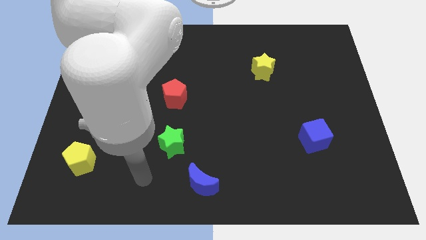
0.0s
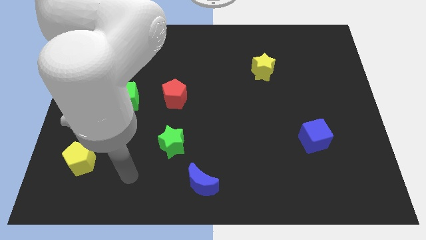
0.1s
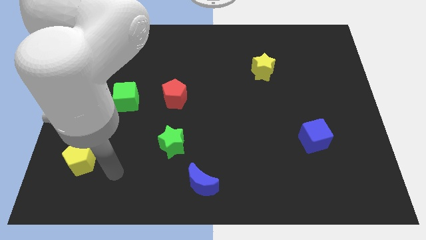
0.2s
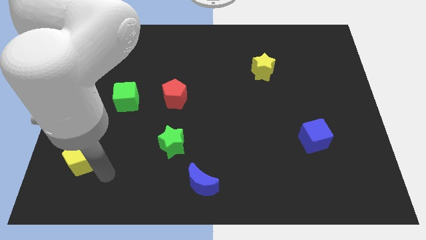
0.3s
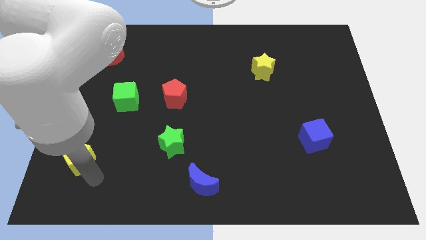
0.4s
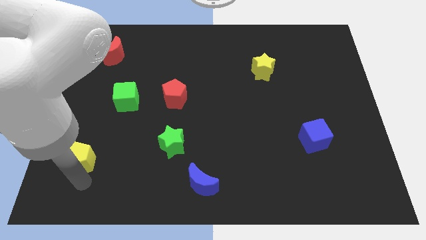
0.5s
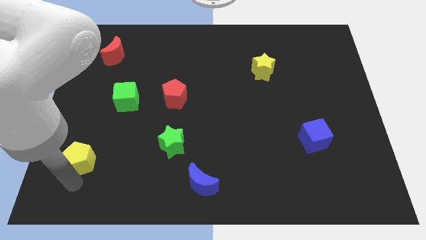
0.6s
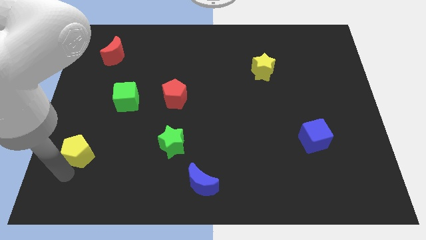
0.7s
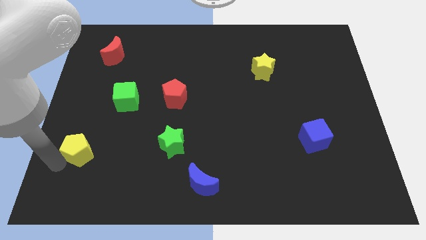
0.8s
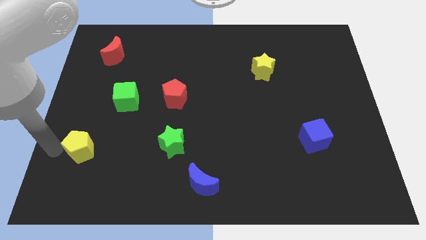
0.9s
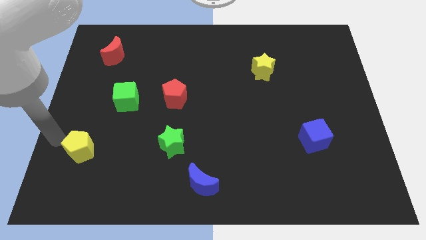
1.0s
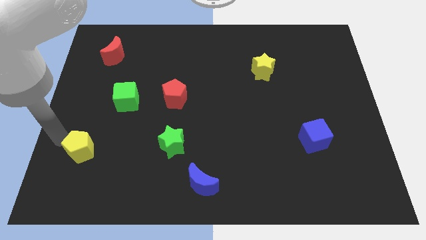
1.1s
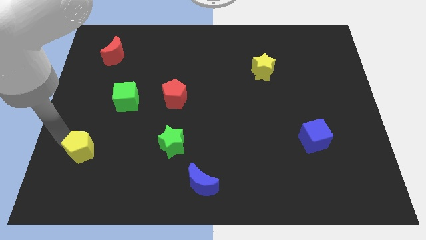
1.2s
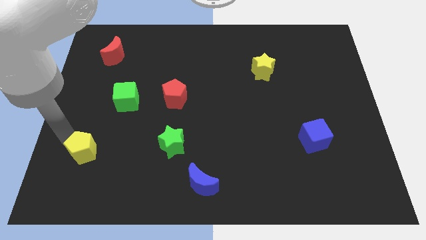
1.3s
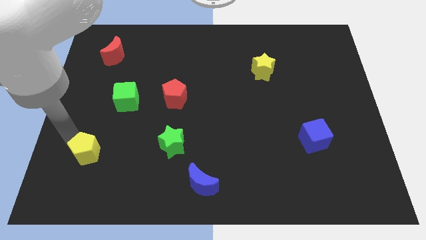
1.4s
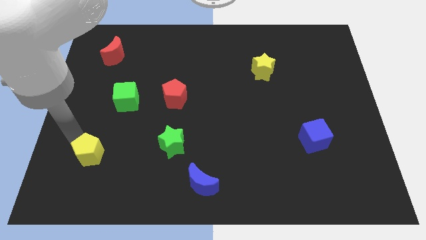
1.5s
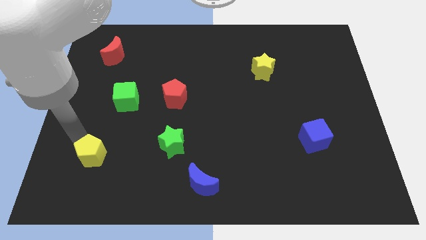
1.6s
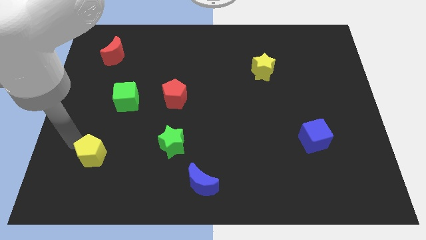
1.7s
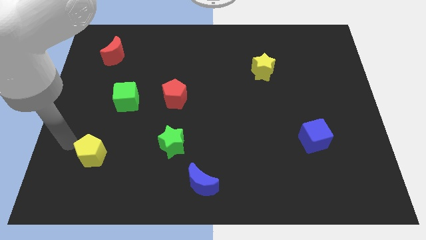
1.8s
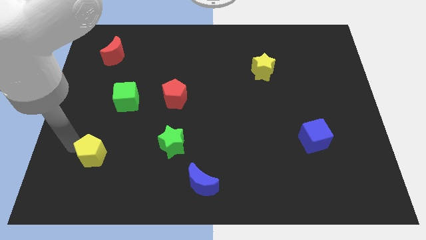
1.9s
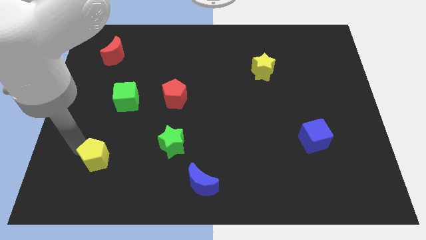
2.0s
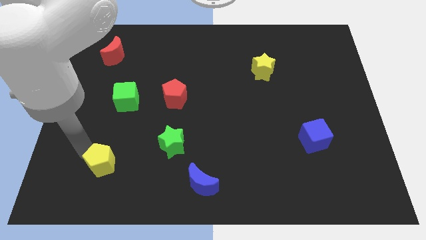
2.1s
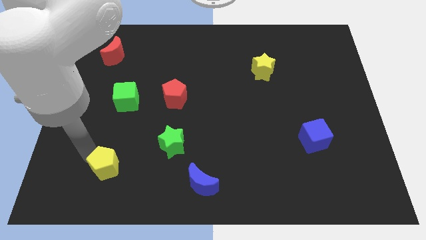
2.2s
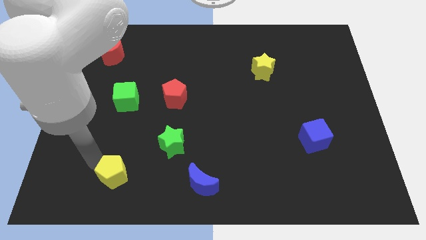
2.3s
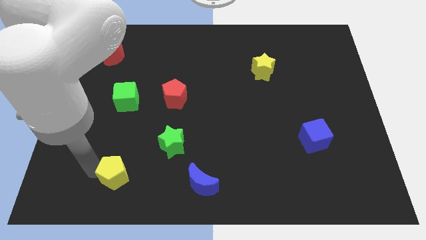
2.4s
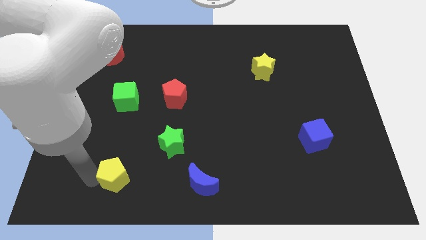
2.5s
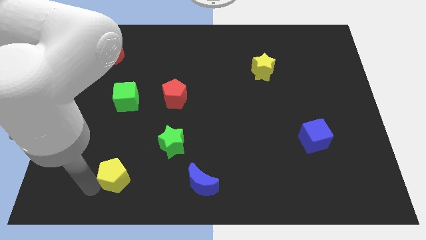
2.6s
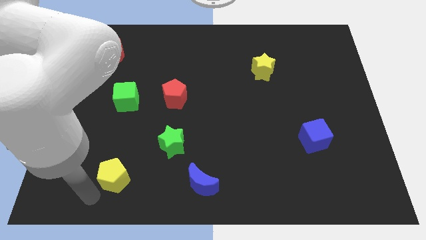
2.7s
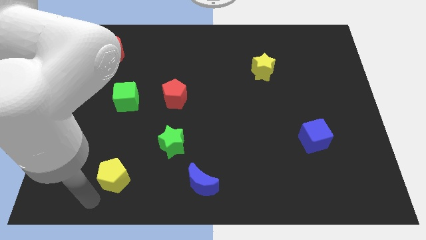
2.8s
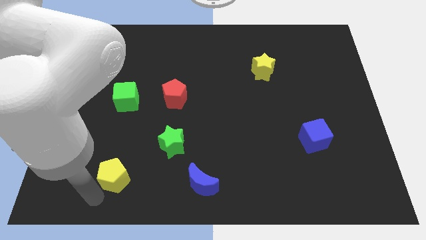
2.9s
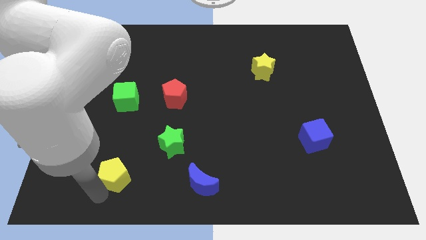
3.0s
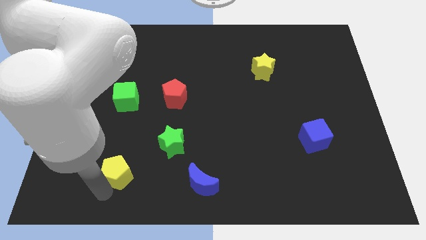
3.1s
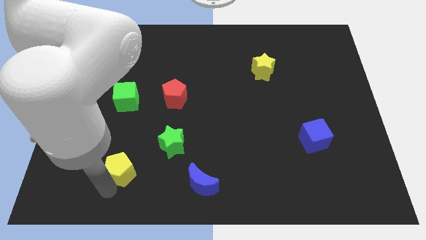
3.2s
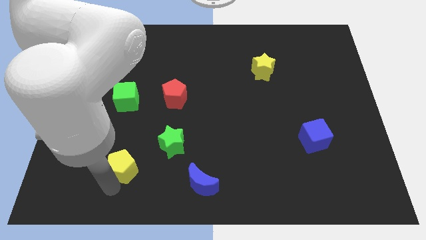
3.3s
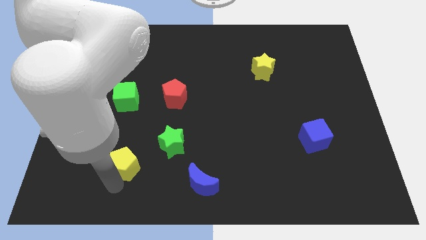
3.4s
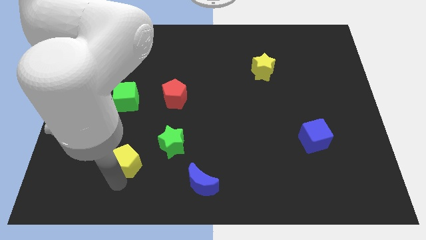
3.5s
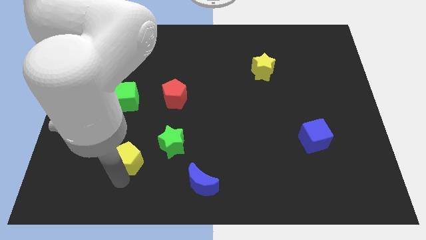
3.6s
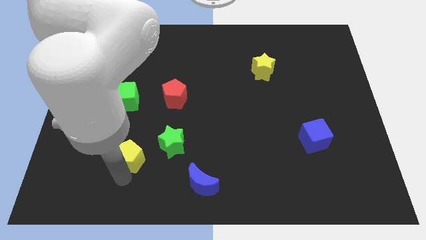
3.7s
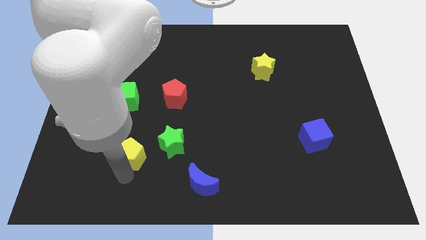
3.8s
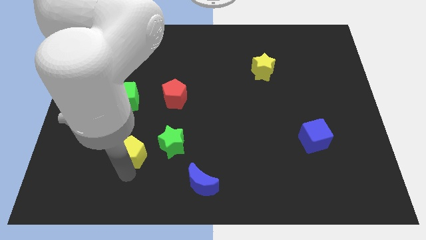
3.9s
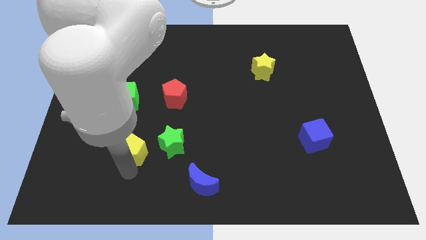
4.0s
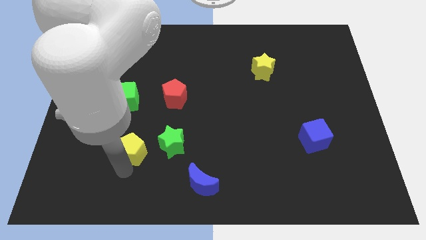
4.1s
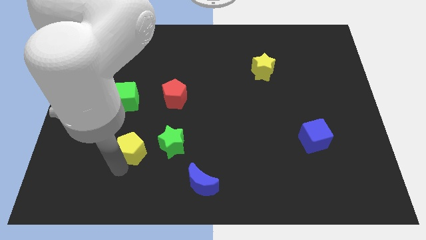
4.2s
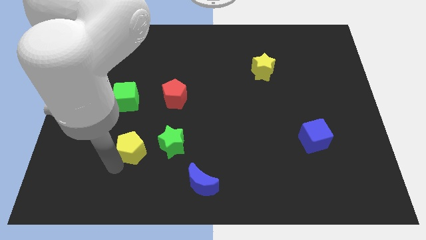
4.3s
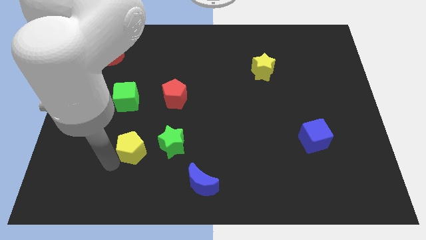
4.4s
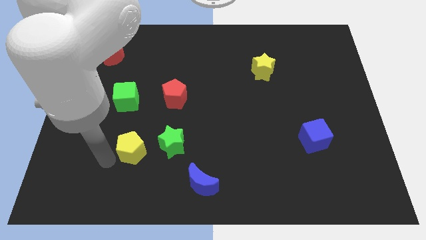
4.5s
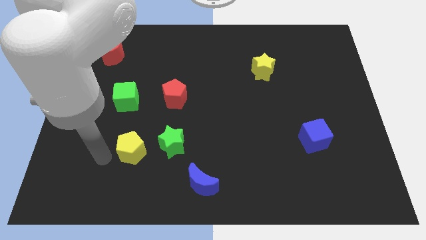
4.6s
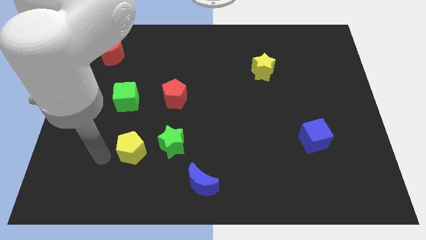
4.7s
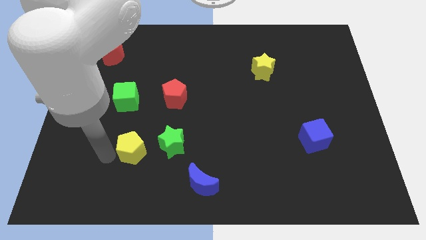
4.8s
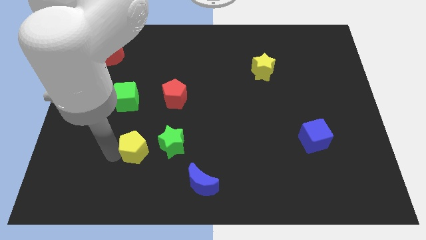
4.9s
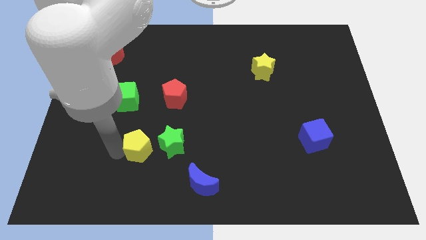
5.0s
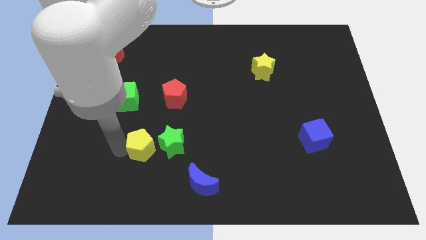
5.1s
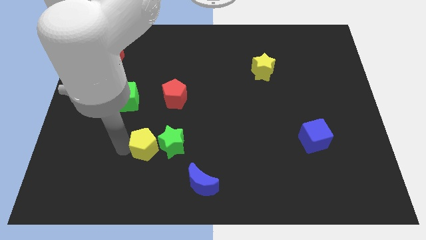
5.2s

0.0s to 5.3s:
move the yellow pentagon towards the green star

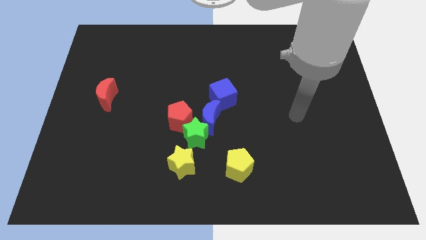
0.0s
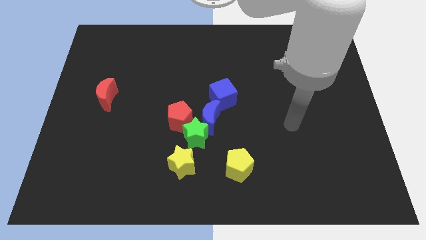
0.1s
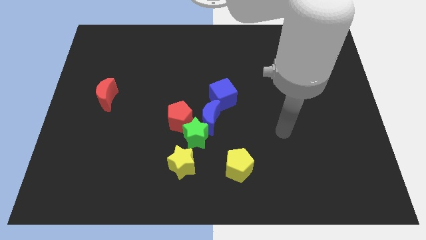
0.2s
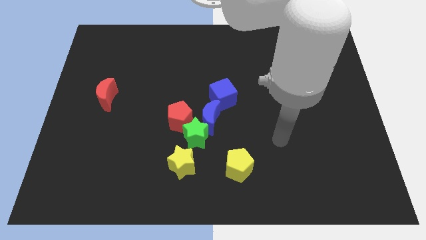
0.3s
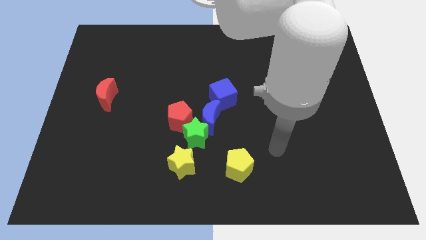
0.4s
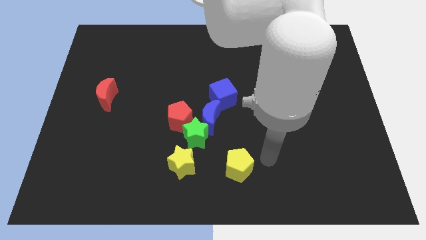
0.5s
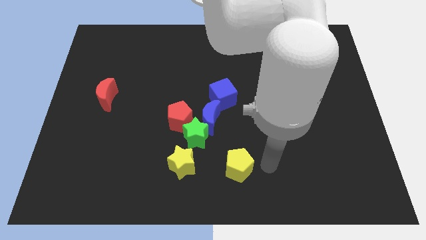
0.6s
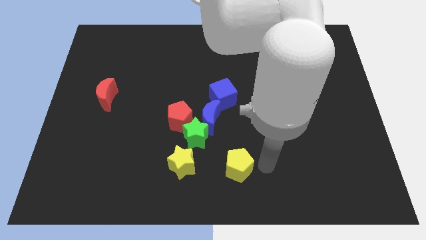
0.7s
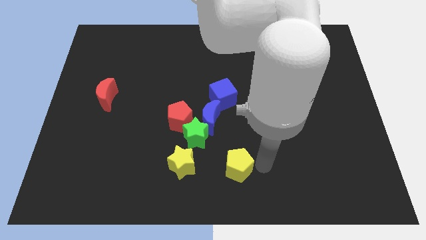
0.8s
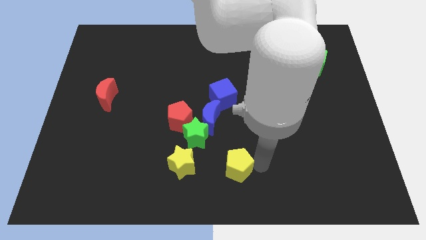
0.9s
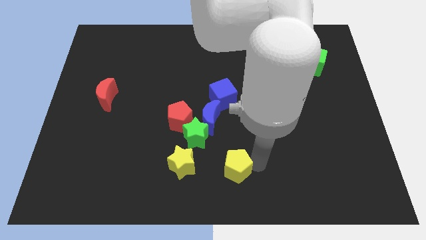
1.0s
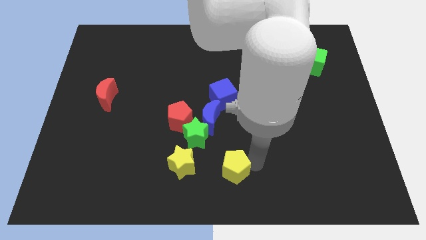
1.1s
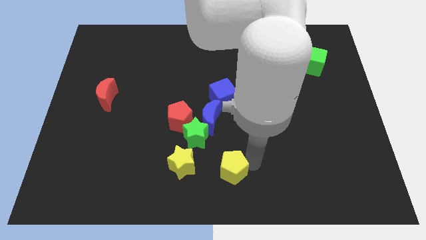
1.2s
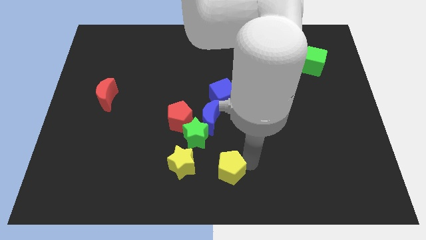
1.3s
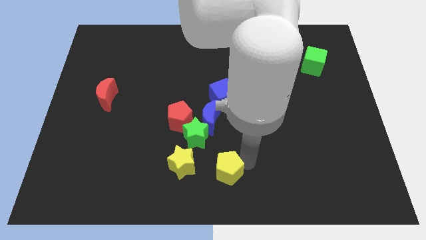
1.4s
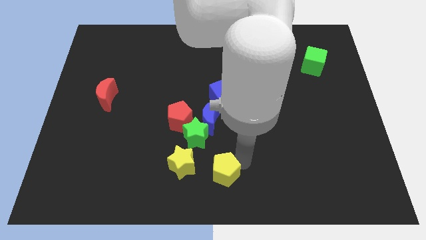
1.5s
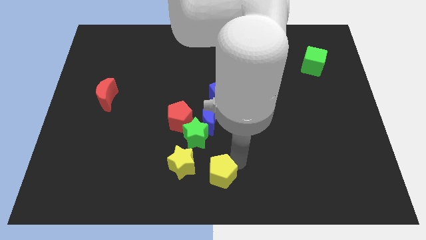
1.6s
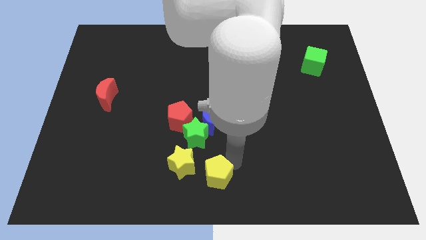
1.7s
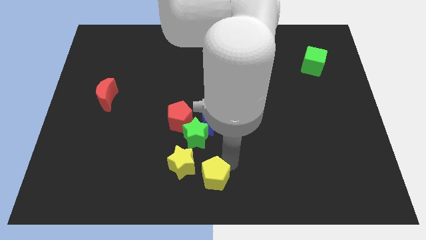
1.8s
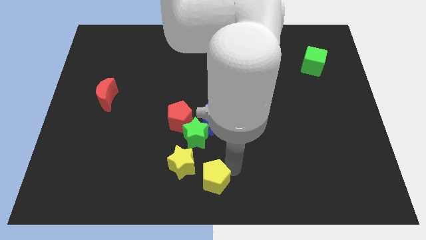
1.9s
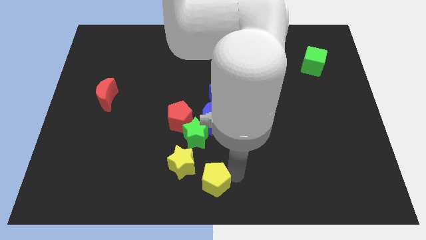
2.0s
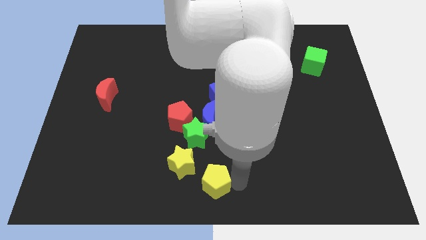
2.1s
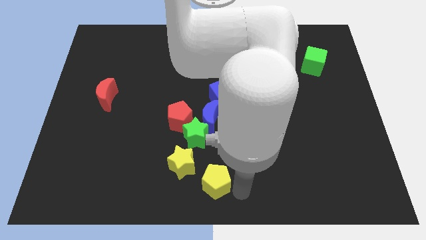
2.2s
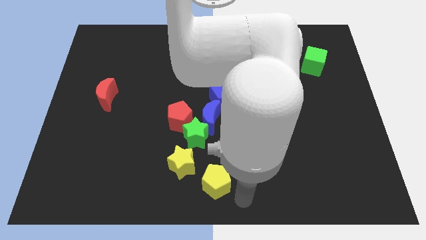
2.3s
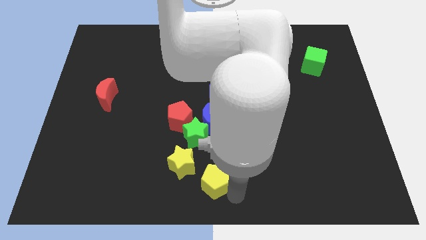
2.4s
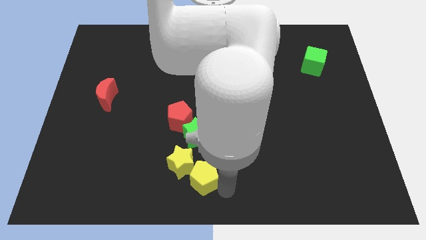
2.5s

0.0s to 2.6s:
put the yellow pentagon towards the yellow star
